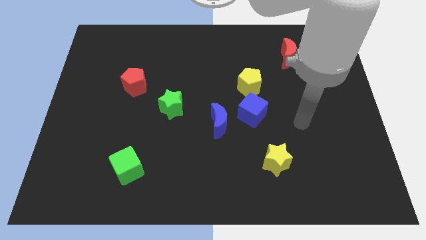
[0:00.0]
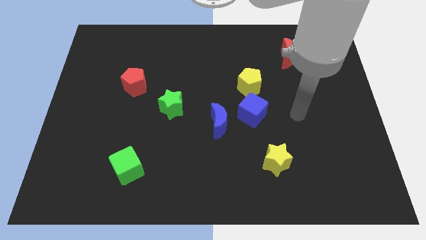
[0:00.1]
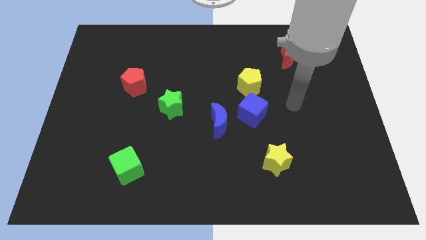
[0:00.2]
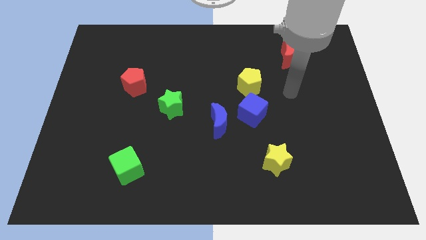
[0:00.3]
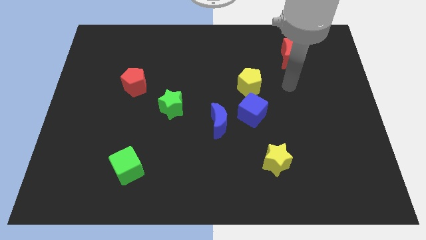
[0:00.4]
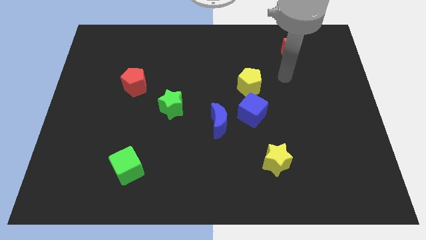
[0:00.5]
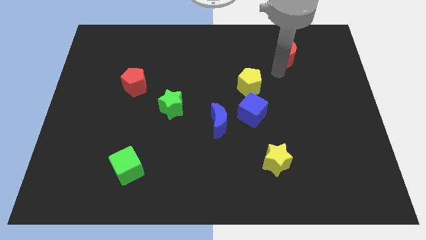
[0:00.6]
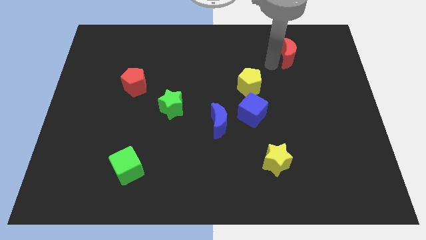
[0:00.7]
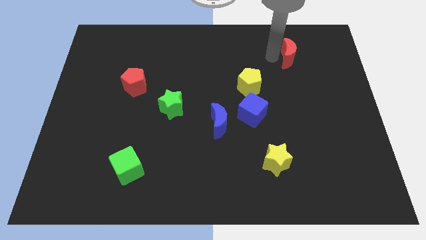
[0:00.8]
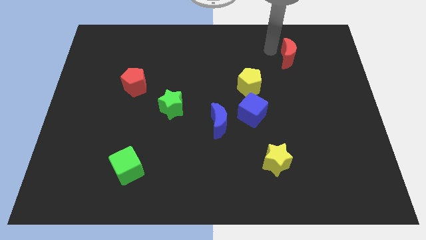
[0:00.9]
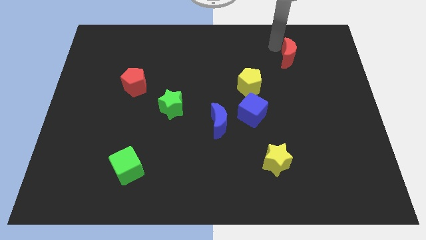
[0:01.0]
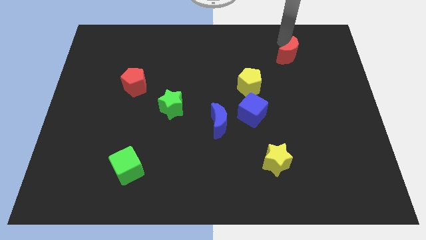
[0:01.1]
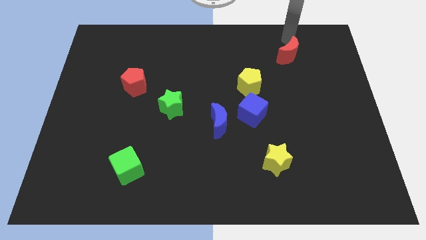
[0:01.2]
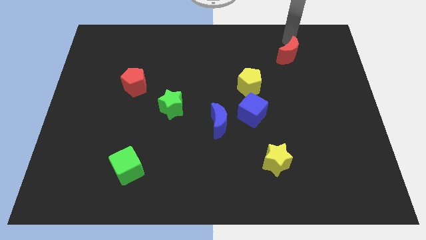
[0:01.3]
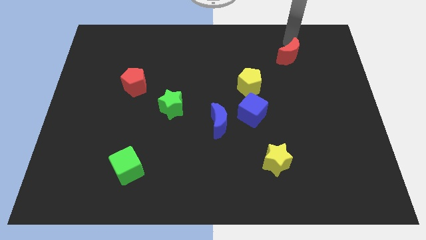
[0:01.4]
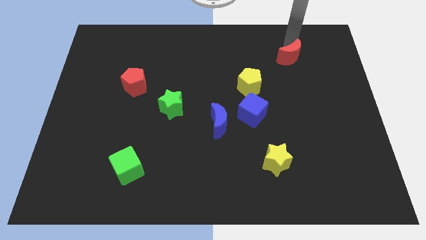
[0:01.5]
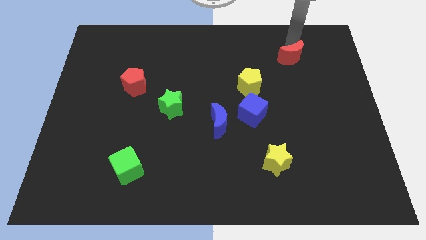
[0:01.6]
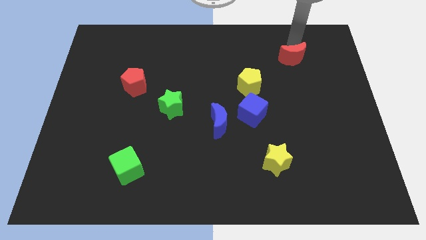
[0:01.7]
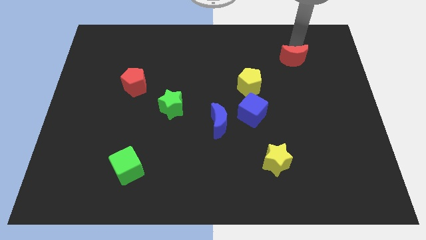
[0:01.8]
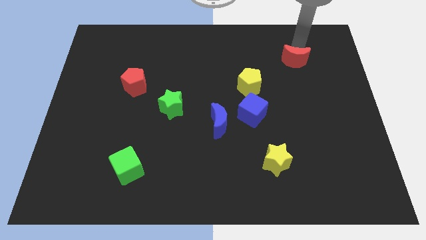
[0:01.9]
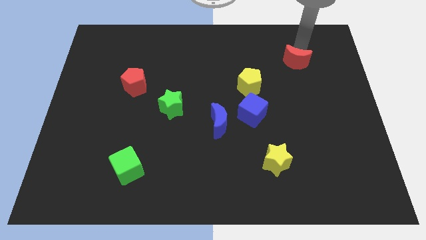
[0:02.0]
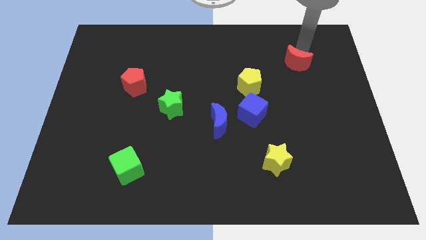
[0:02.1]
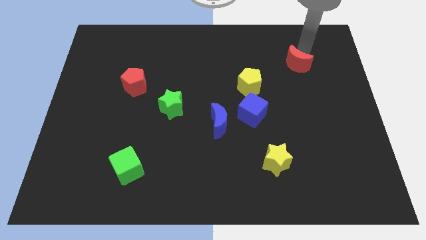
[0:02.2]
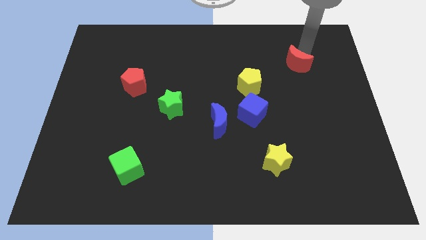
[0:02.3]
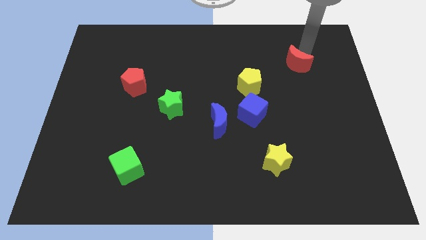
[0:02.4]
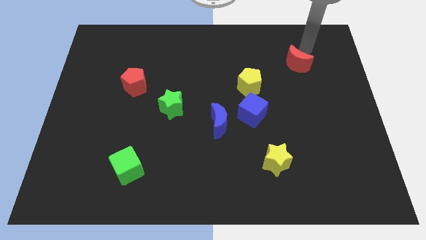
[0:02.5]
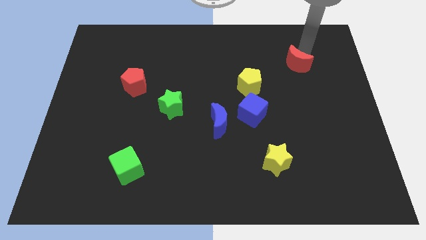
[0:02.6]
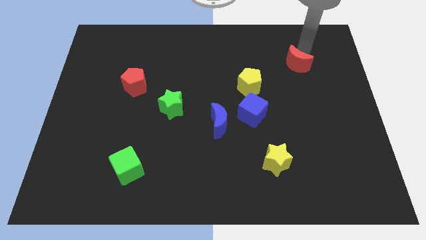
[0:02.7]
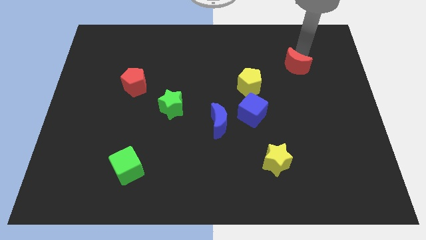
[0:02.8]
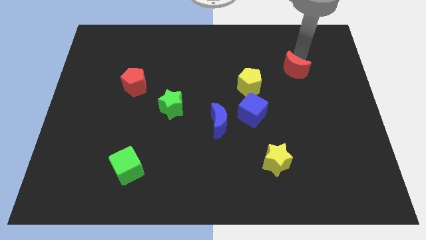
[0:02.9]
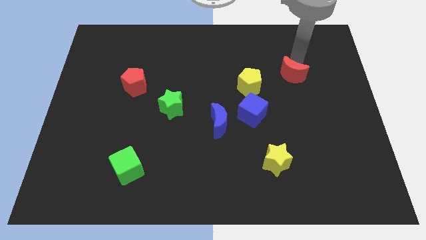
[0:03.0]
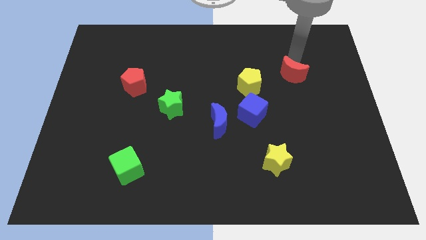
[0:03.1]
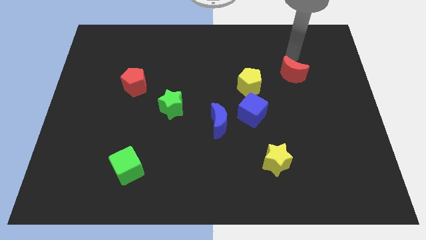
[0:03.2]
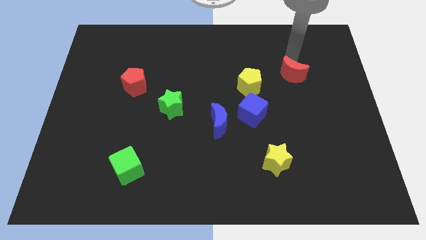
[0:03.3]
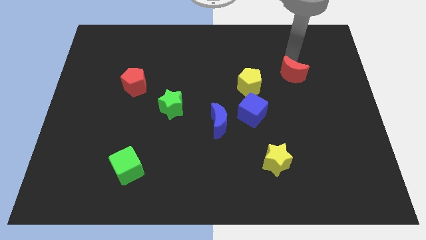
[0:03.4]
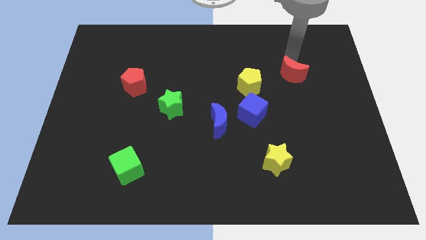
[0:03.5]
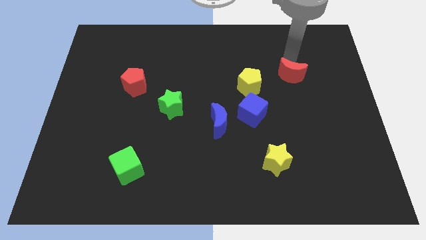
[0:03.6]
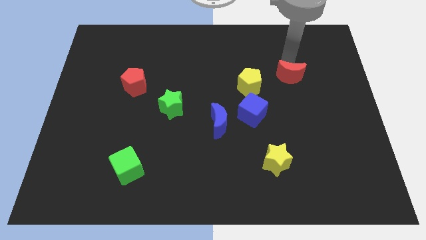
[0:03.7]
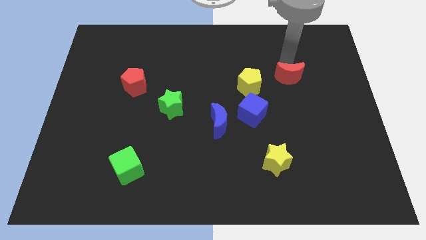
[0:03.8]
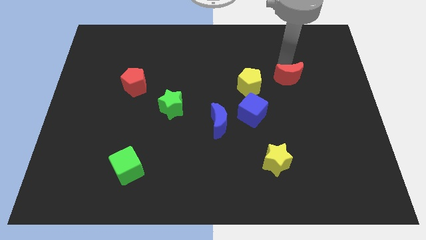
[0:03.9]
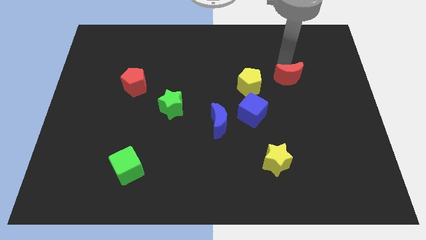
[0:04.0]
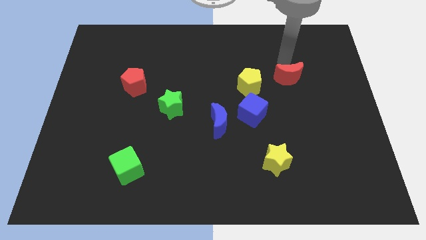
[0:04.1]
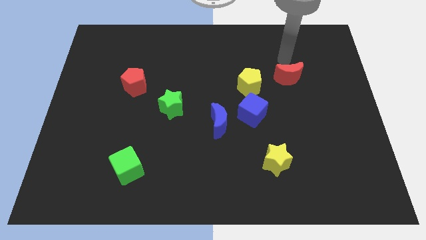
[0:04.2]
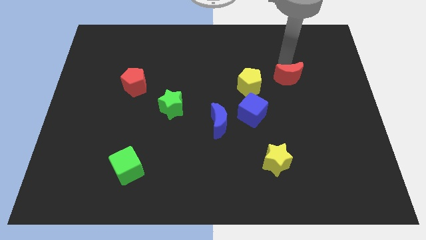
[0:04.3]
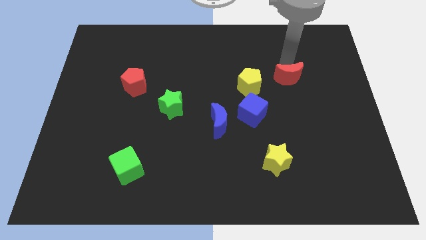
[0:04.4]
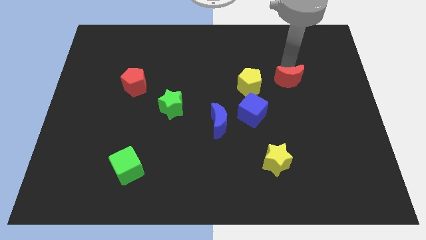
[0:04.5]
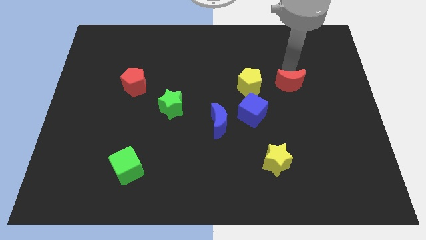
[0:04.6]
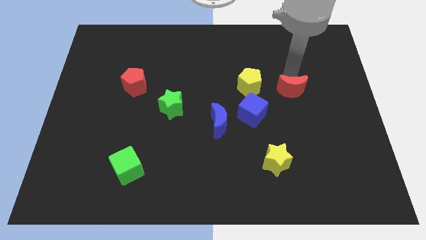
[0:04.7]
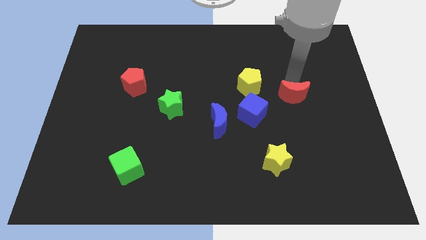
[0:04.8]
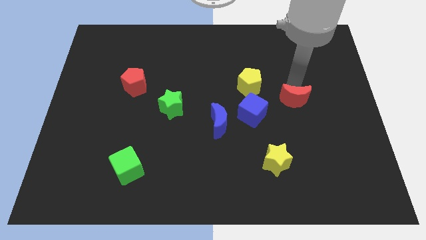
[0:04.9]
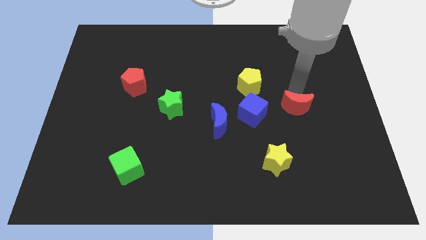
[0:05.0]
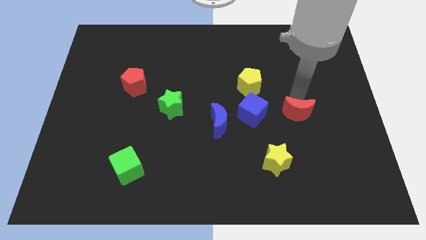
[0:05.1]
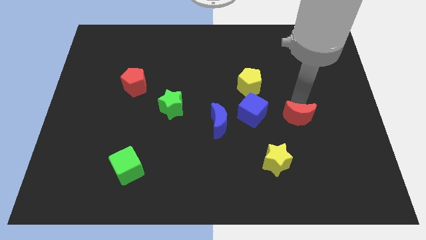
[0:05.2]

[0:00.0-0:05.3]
move the red moon downwards

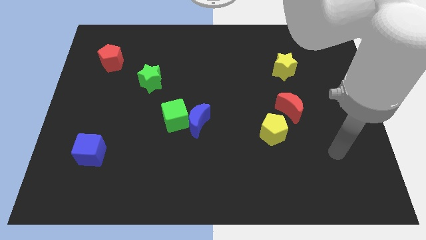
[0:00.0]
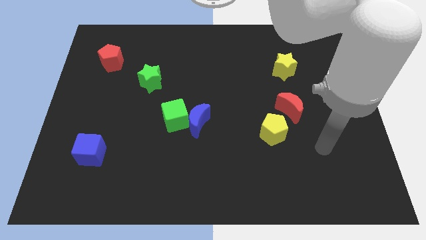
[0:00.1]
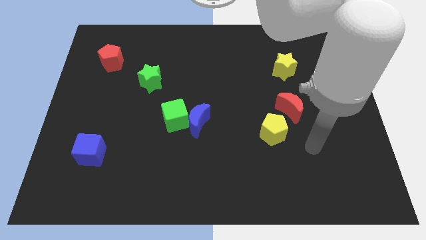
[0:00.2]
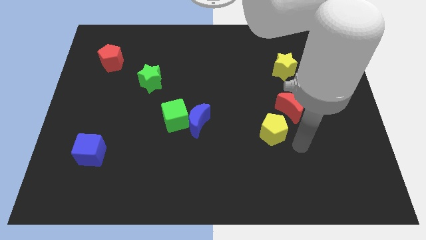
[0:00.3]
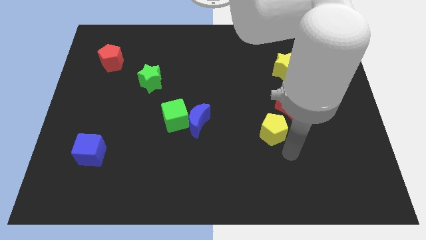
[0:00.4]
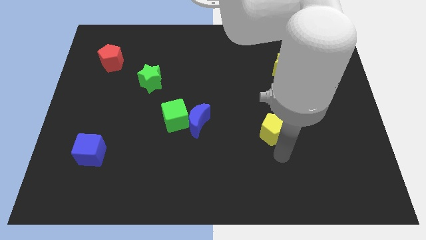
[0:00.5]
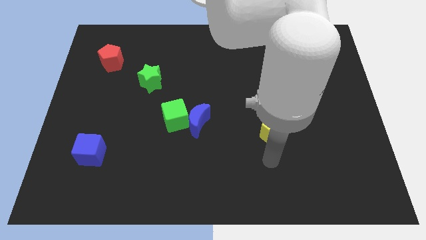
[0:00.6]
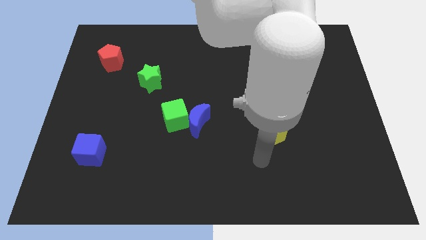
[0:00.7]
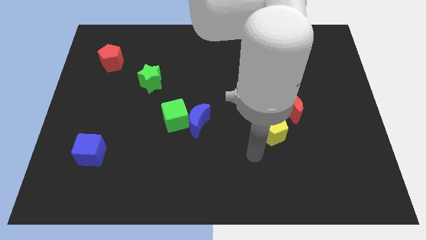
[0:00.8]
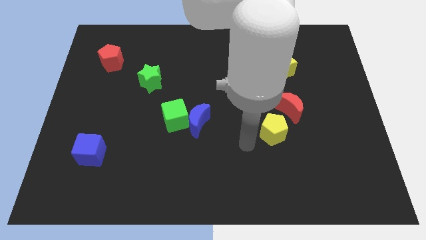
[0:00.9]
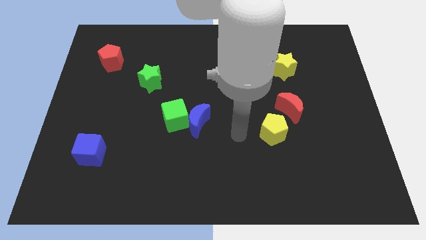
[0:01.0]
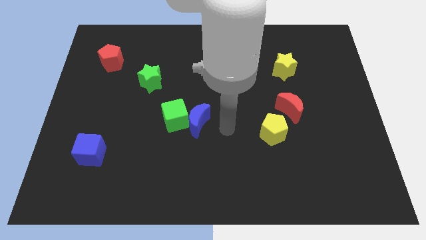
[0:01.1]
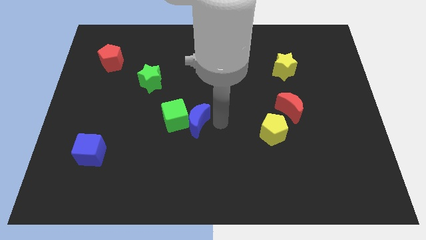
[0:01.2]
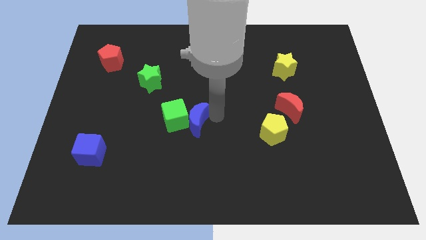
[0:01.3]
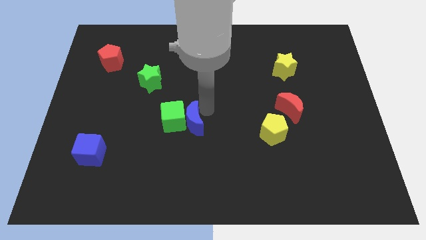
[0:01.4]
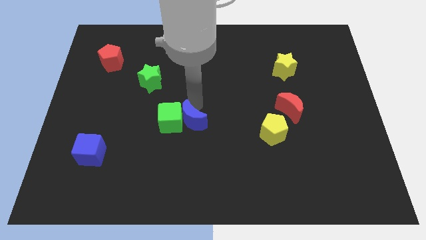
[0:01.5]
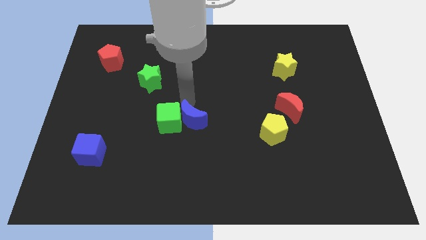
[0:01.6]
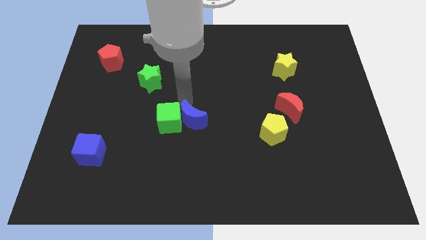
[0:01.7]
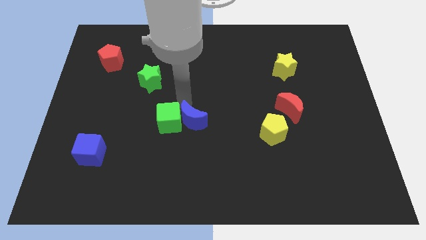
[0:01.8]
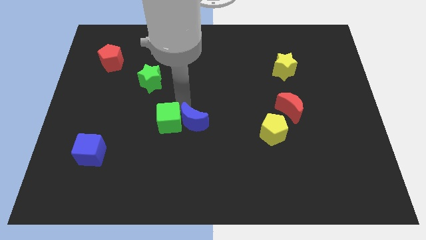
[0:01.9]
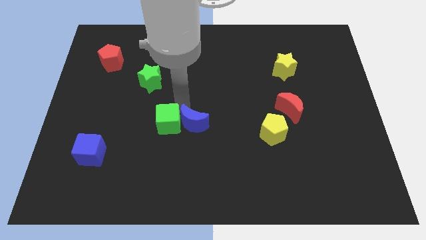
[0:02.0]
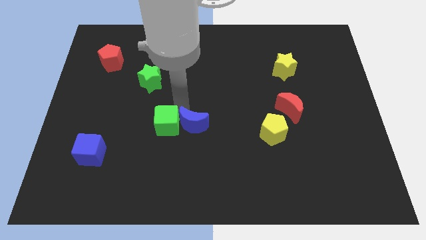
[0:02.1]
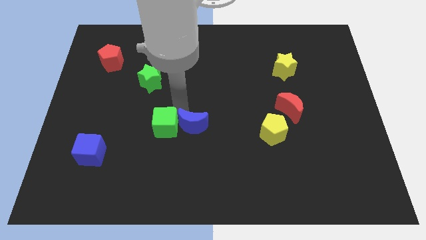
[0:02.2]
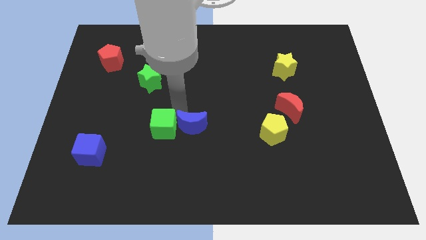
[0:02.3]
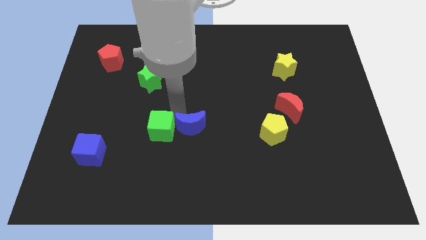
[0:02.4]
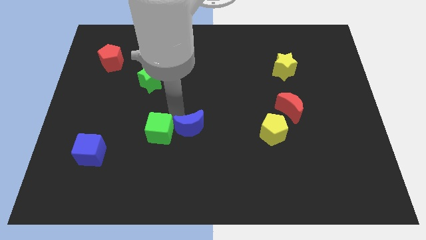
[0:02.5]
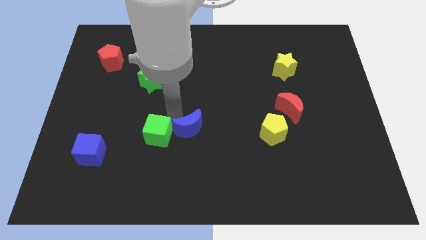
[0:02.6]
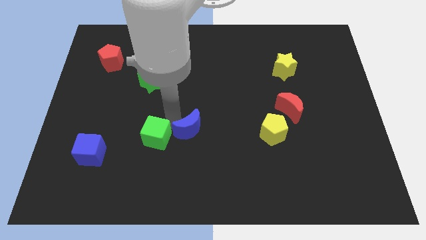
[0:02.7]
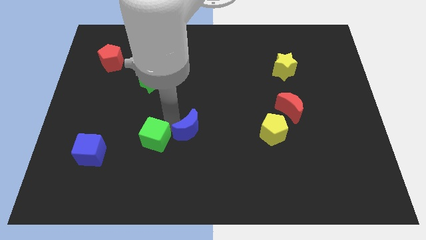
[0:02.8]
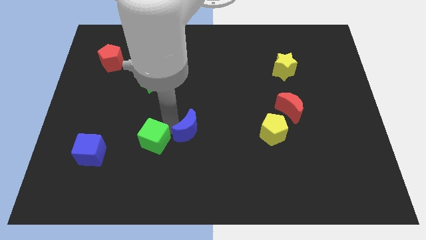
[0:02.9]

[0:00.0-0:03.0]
move the green cube downwards and then to the left a little
